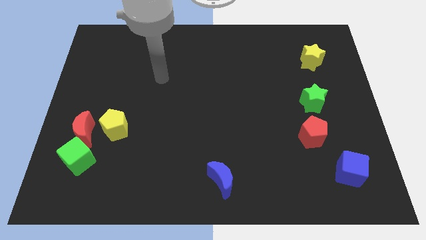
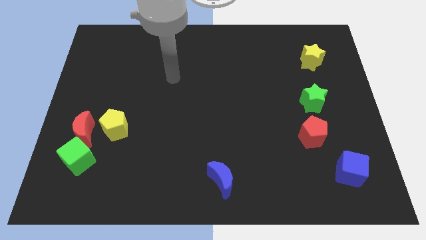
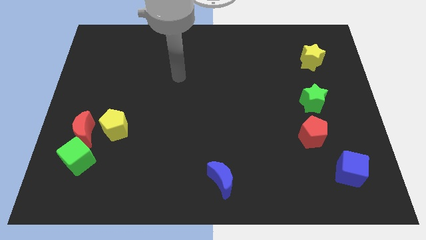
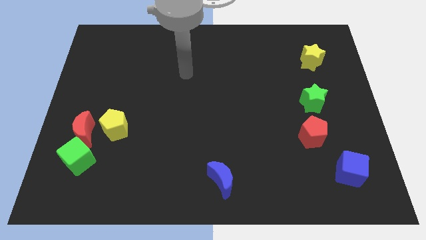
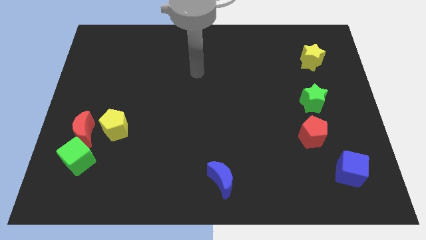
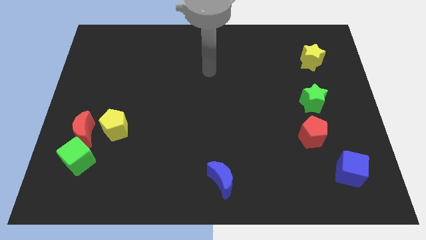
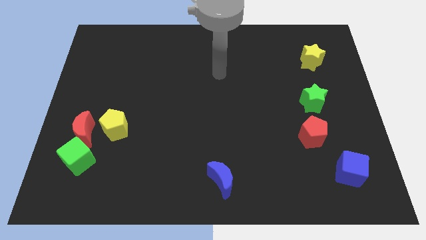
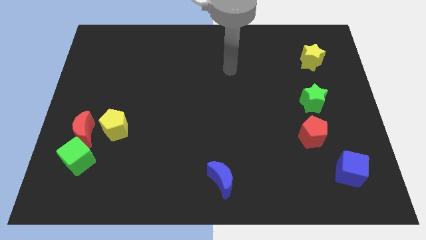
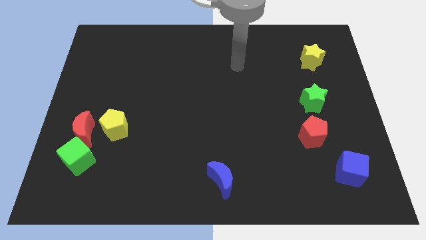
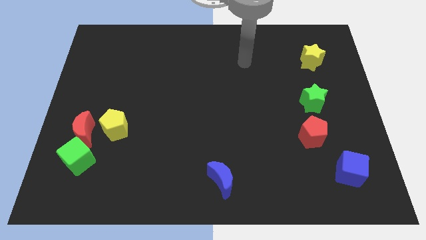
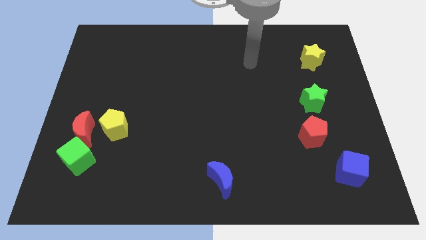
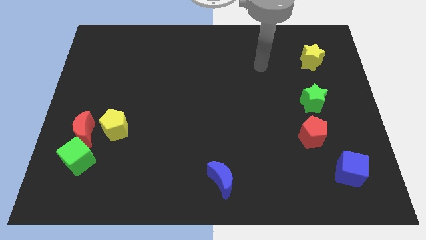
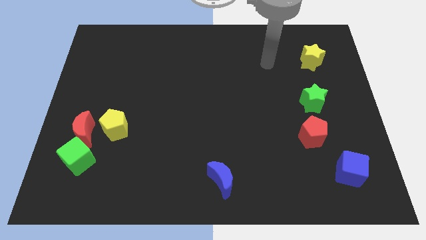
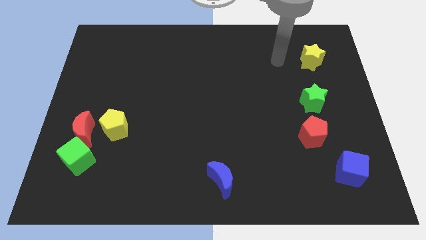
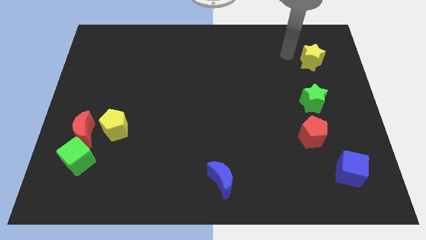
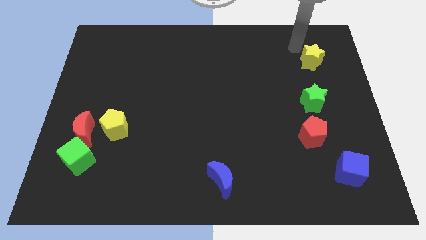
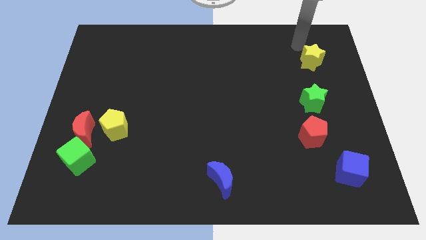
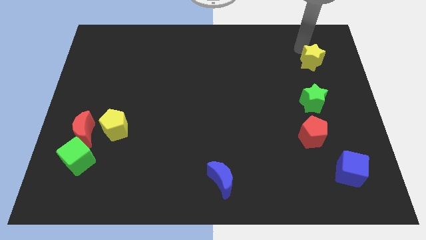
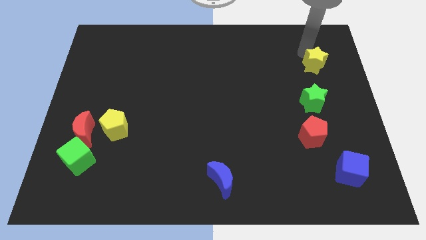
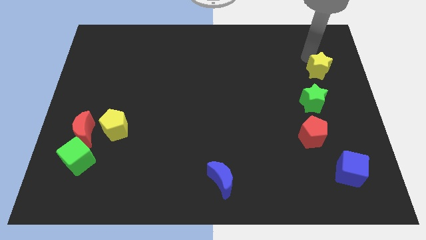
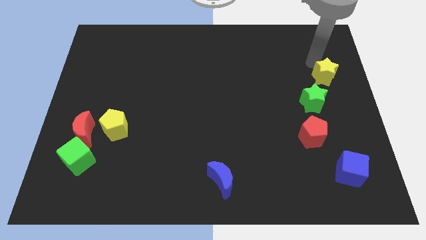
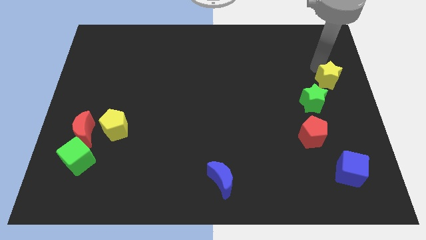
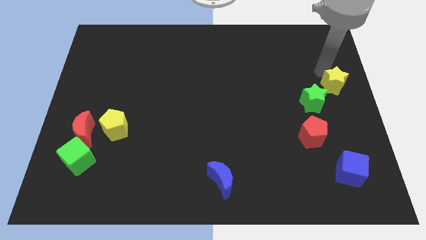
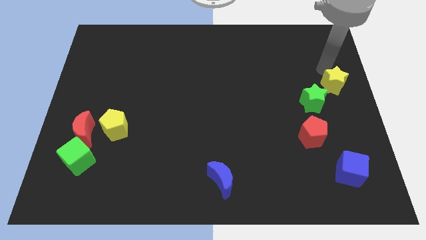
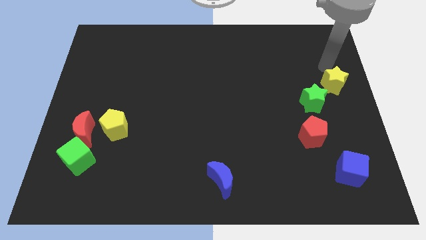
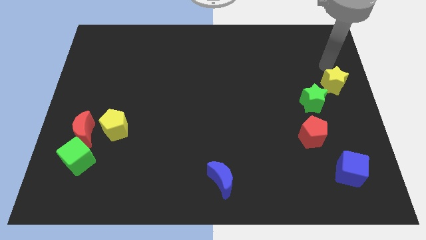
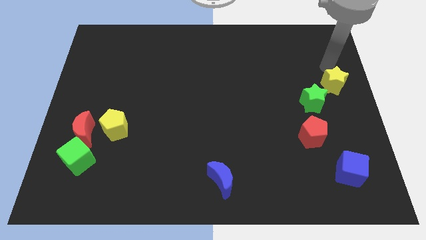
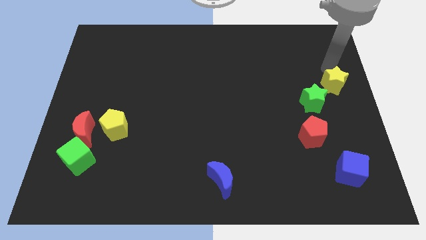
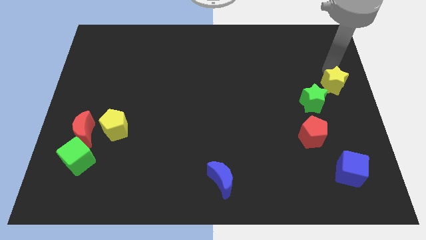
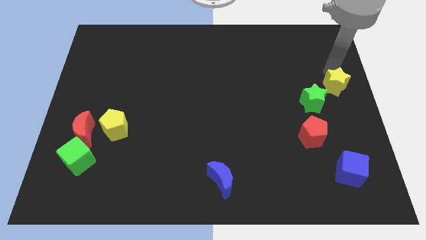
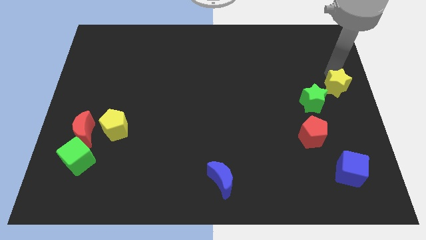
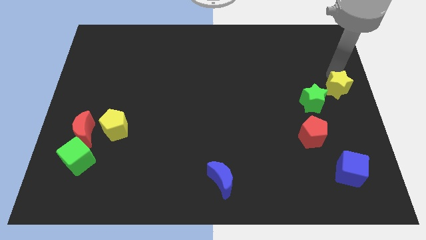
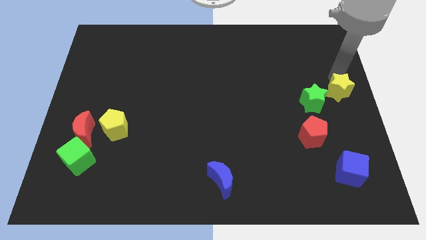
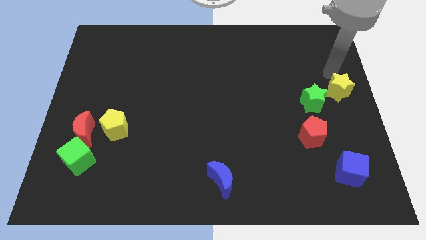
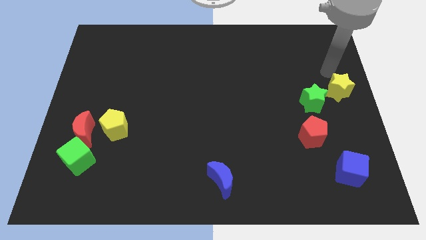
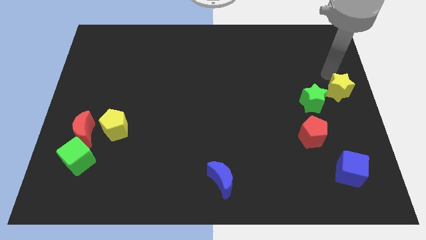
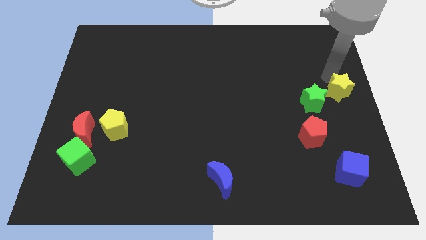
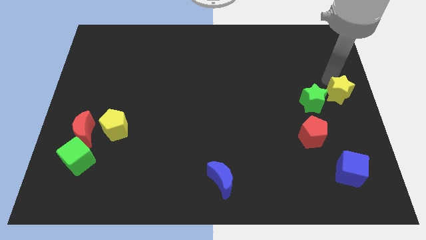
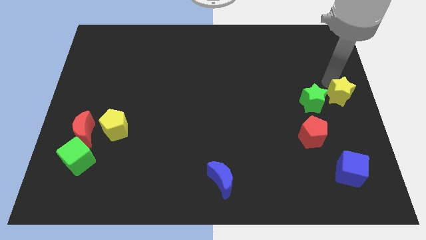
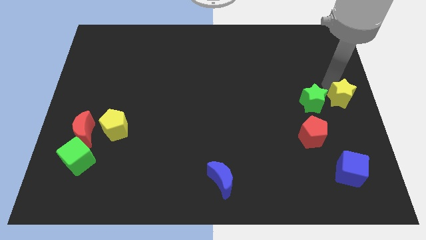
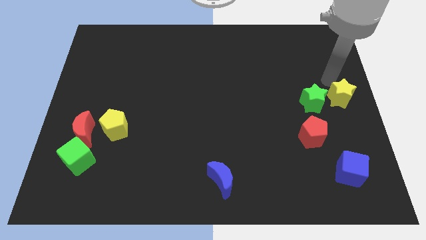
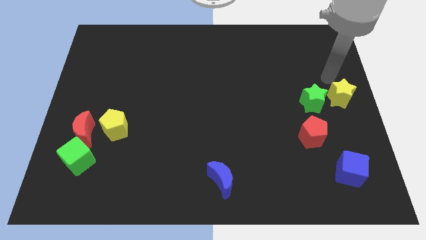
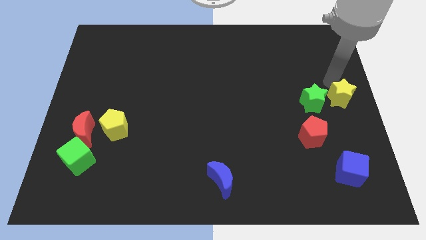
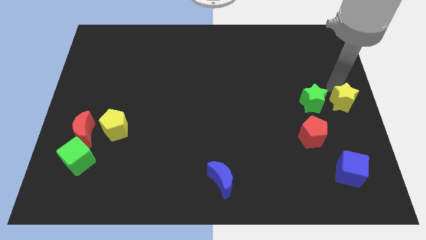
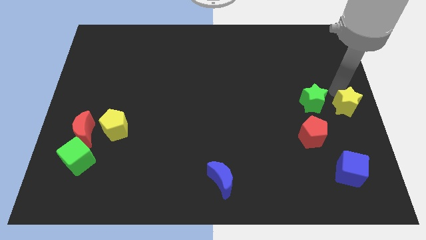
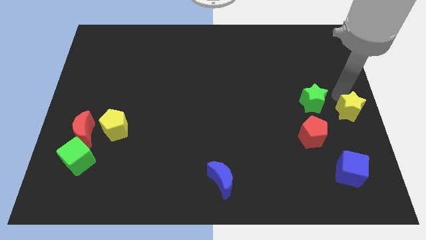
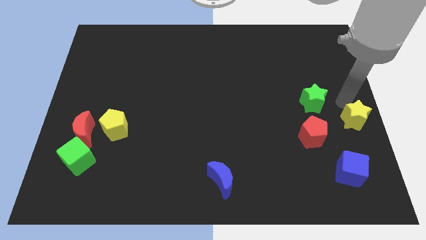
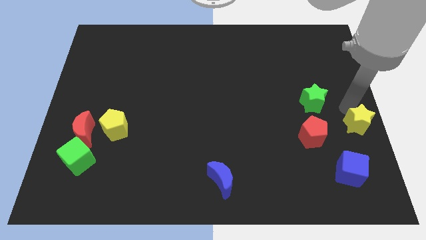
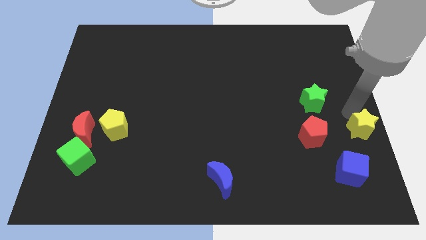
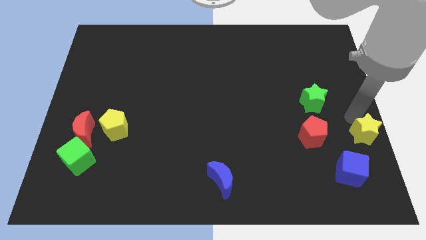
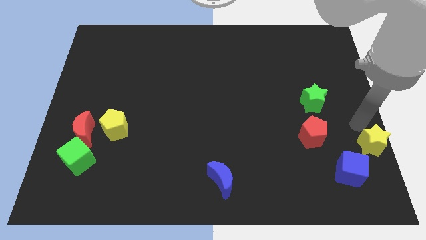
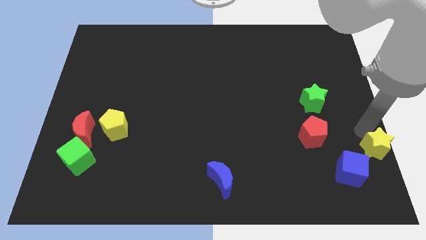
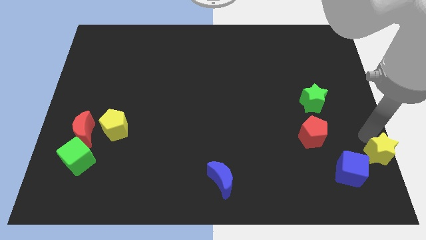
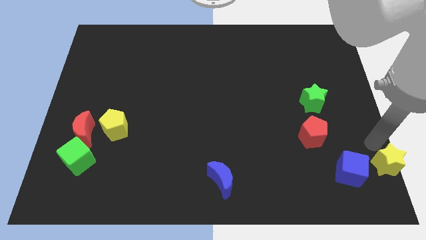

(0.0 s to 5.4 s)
put the yellow star to the bottom right of the board

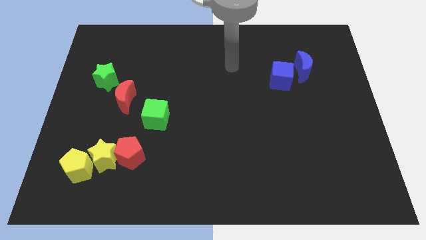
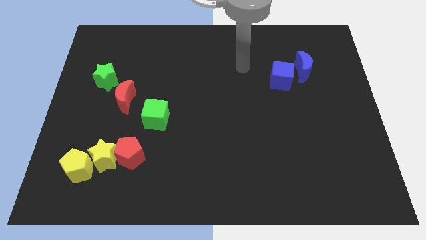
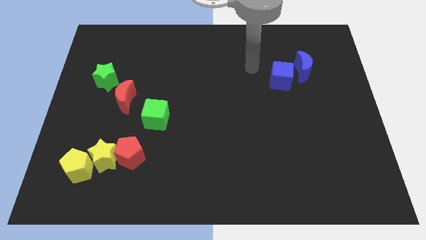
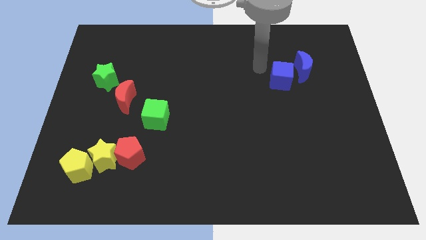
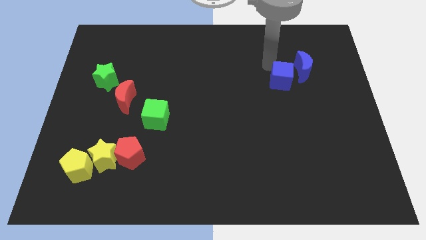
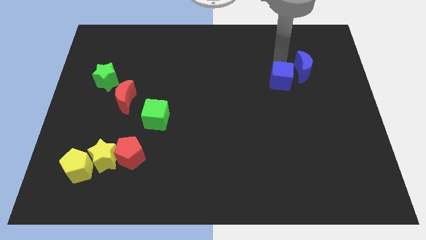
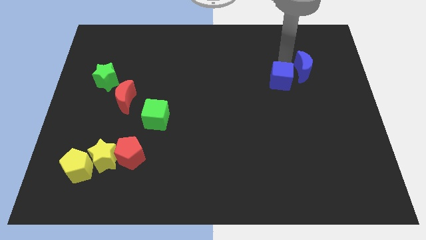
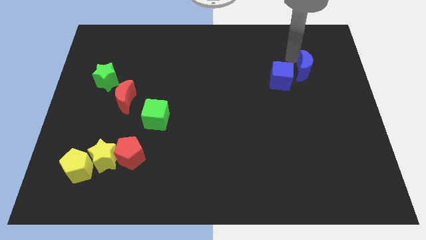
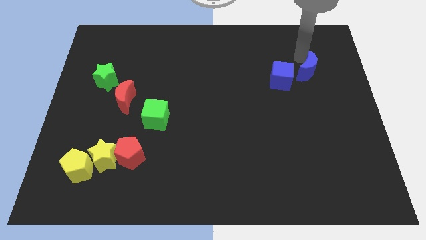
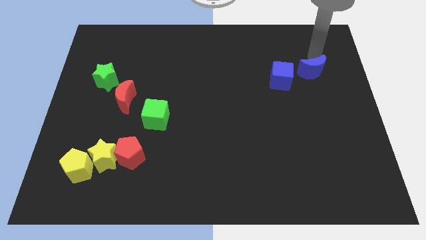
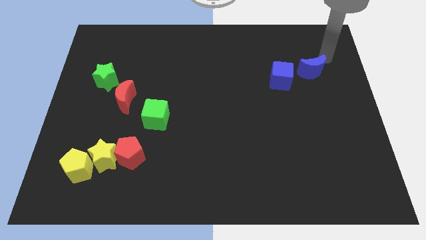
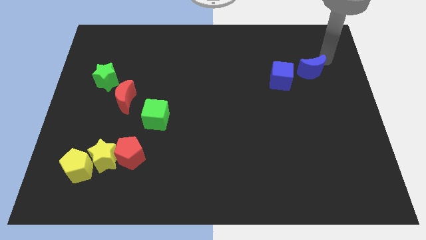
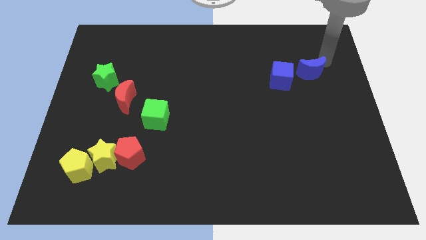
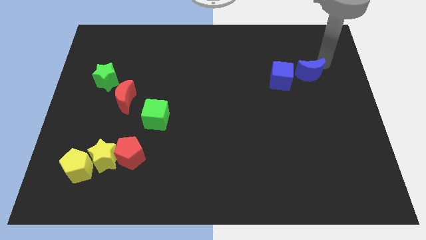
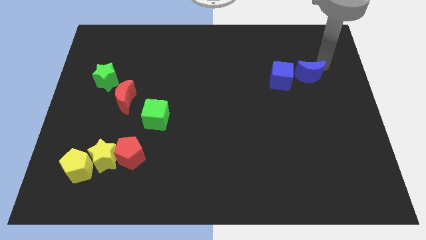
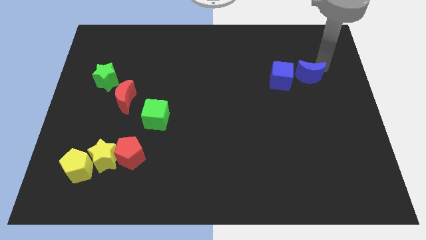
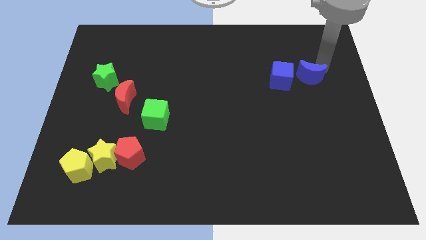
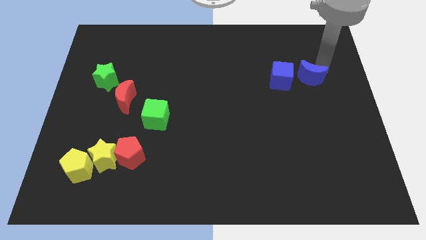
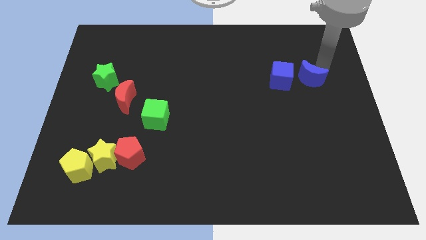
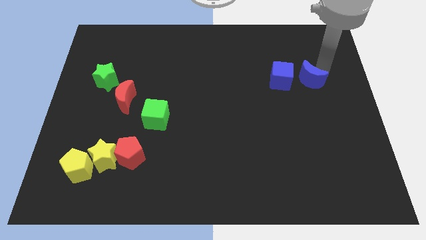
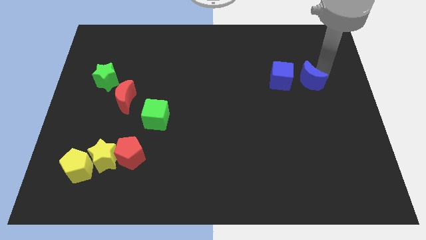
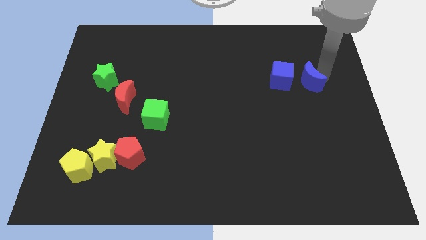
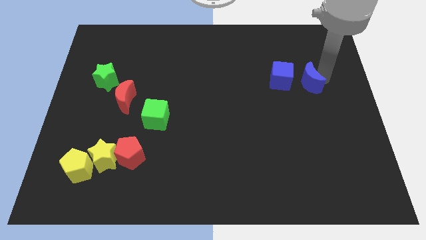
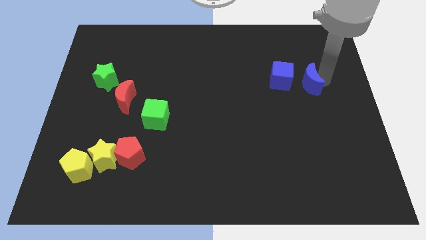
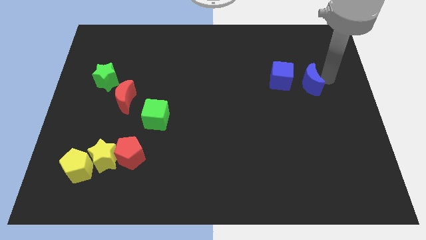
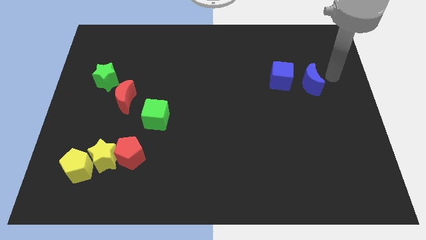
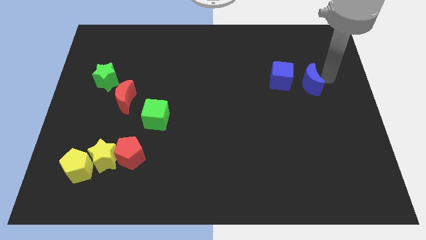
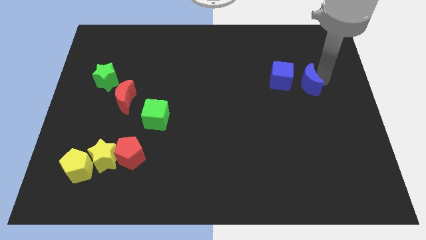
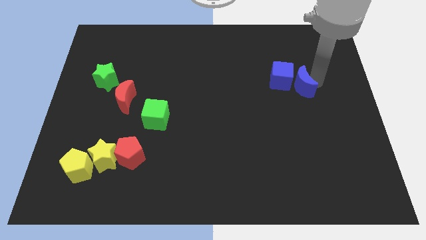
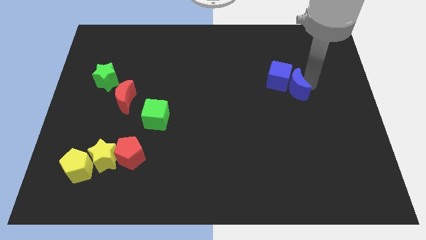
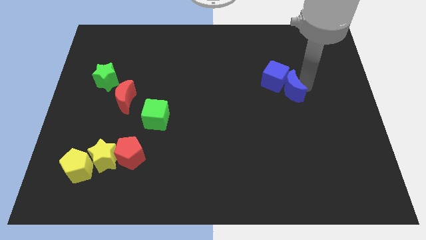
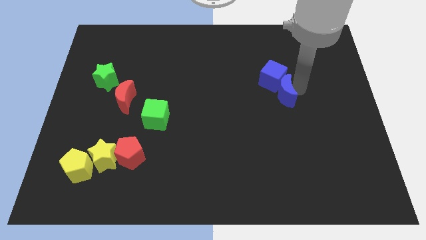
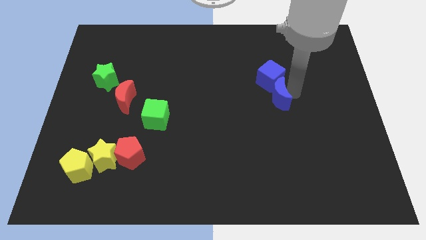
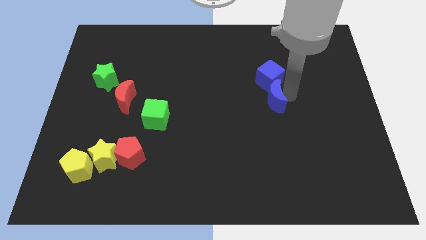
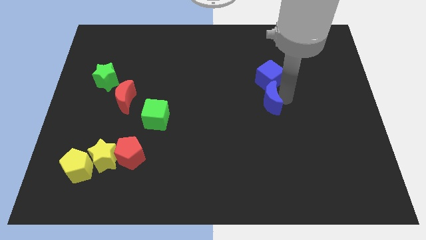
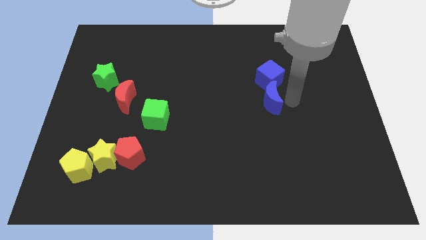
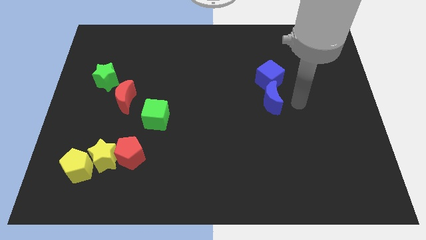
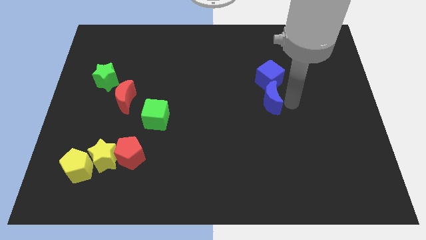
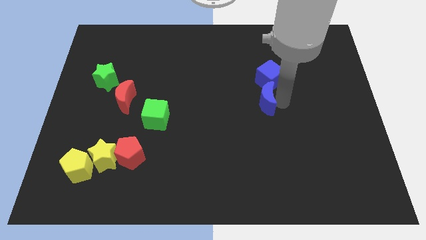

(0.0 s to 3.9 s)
move the blue moon to the center
